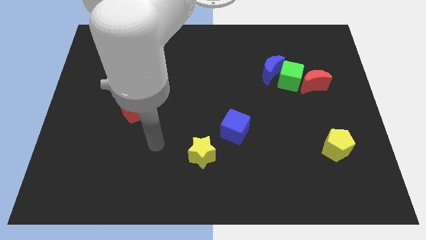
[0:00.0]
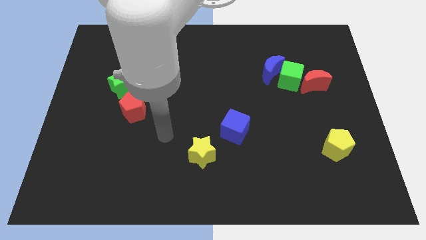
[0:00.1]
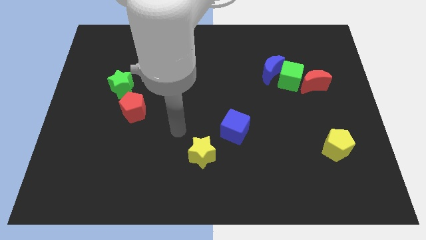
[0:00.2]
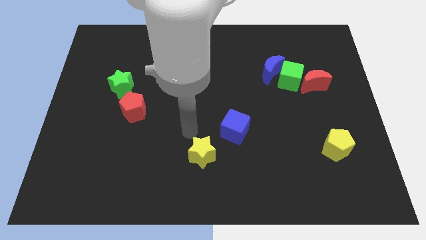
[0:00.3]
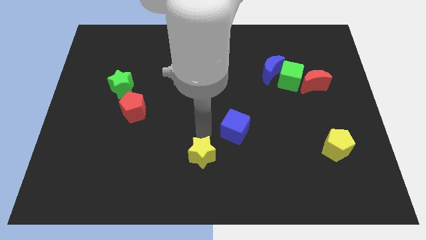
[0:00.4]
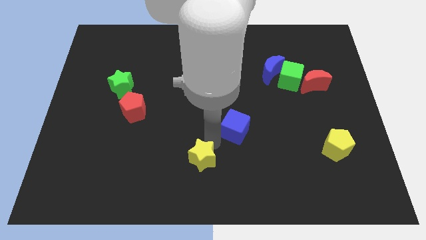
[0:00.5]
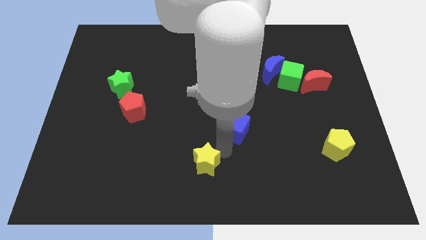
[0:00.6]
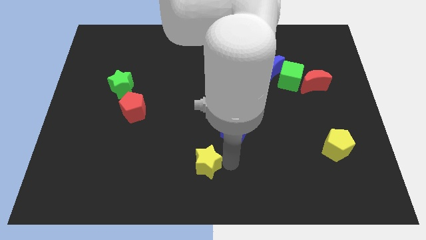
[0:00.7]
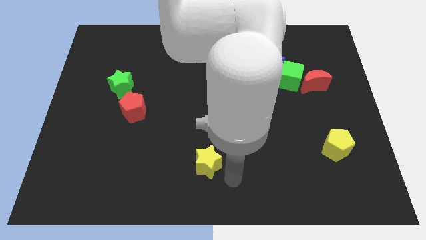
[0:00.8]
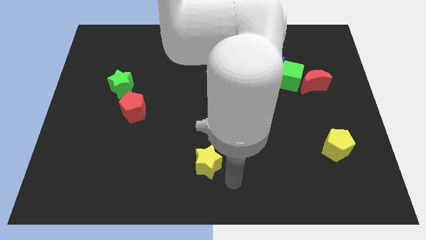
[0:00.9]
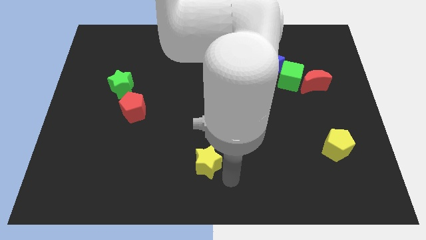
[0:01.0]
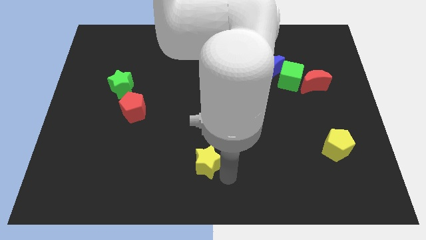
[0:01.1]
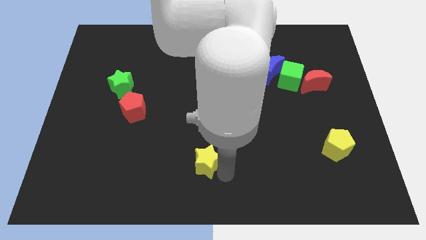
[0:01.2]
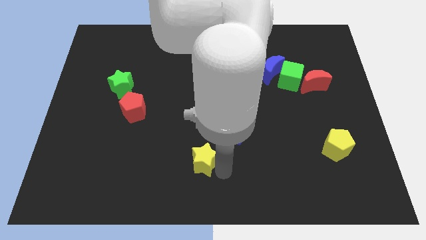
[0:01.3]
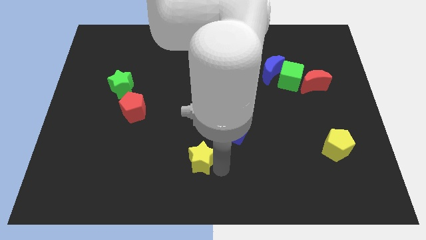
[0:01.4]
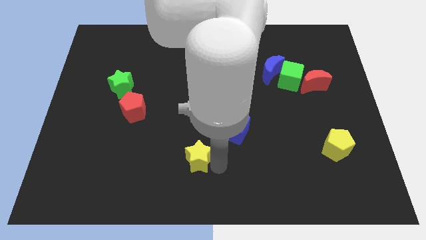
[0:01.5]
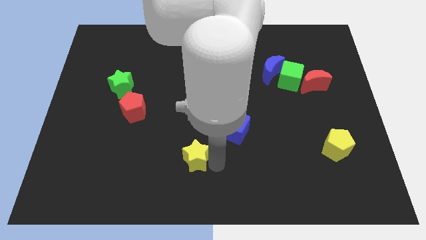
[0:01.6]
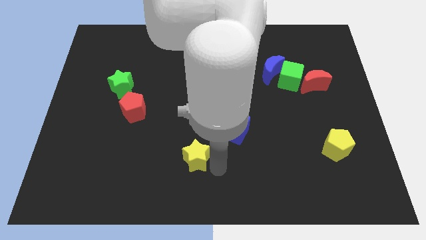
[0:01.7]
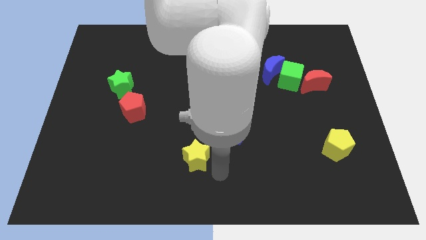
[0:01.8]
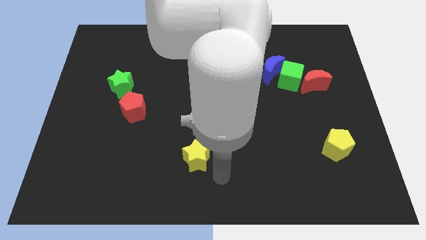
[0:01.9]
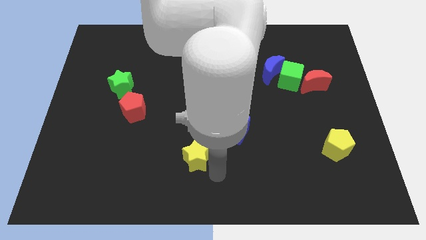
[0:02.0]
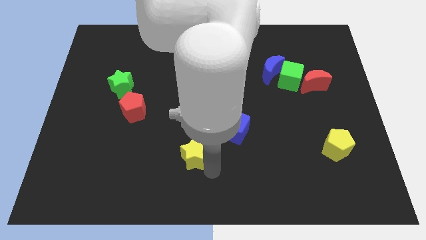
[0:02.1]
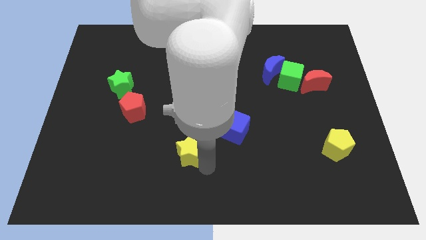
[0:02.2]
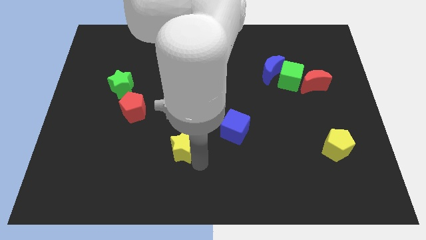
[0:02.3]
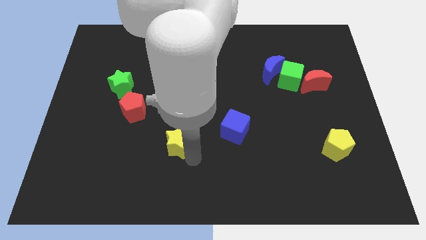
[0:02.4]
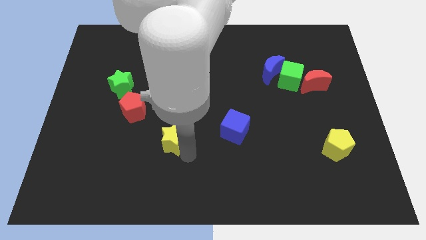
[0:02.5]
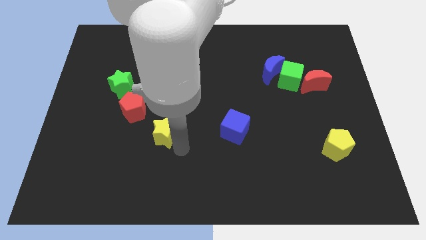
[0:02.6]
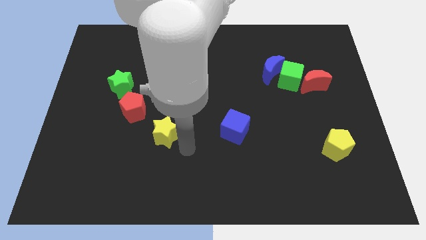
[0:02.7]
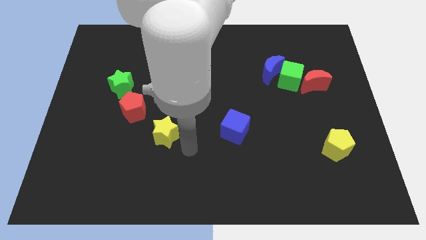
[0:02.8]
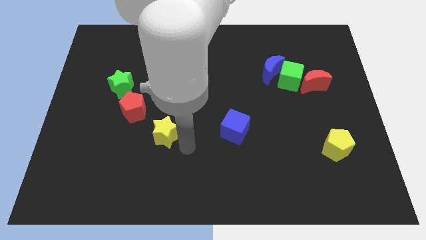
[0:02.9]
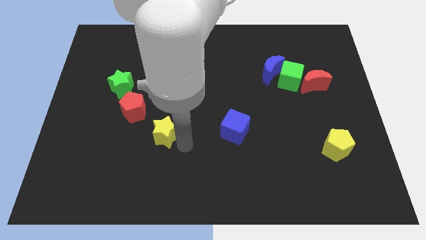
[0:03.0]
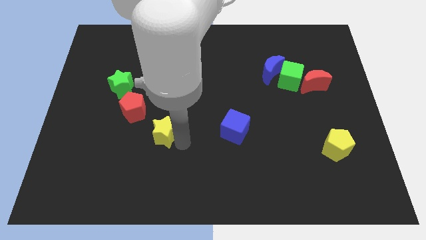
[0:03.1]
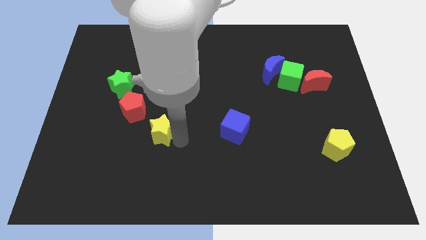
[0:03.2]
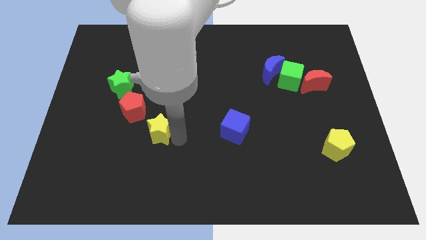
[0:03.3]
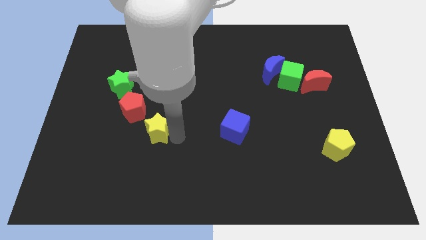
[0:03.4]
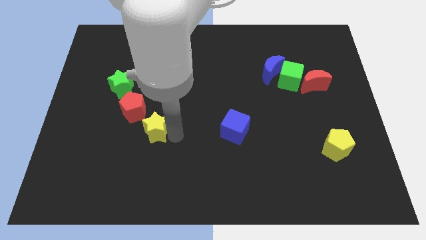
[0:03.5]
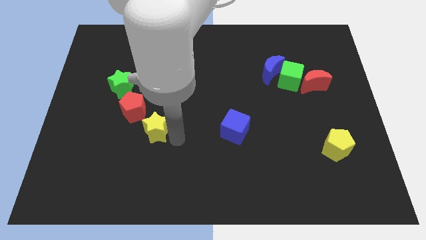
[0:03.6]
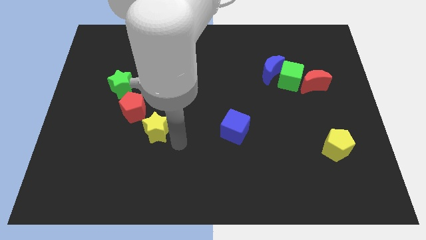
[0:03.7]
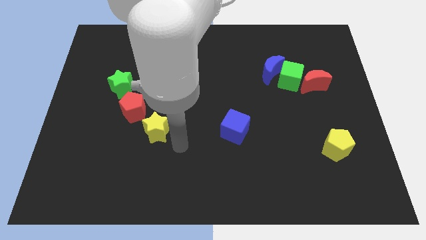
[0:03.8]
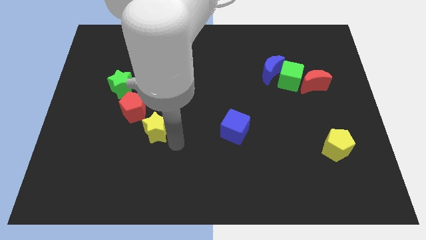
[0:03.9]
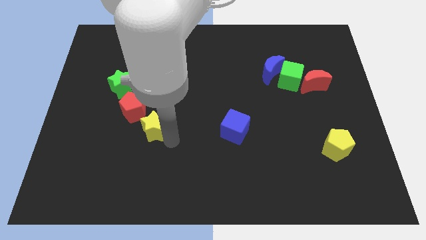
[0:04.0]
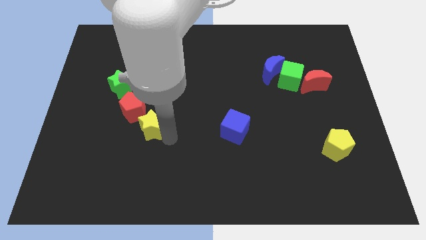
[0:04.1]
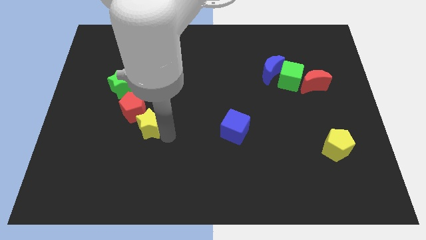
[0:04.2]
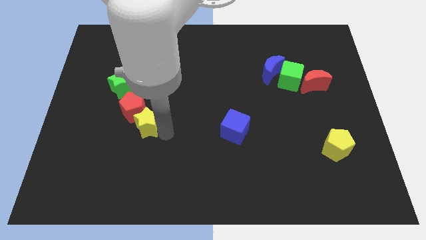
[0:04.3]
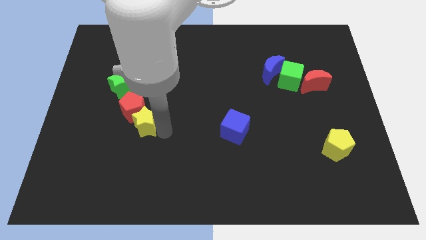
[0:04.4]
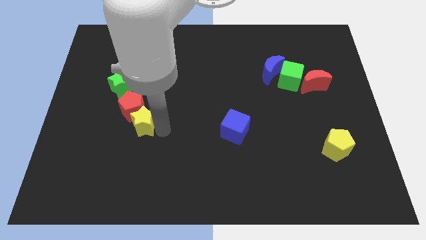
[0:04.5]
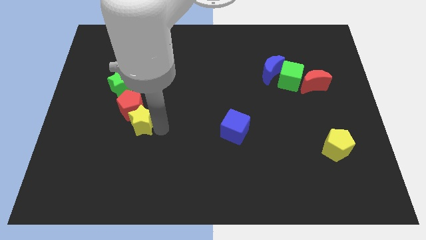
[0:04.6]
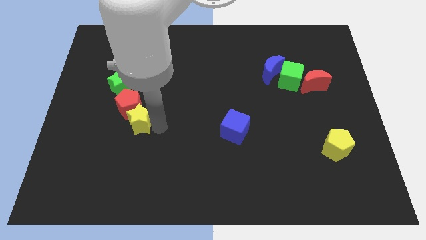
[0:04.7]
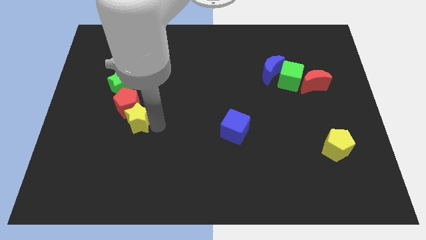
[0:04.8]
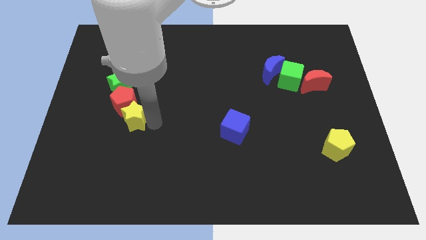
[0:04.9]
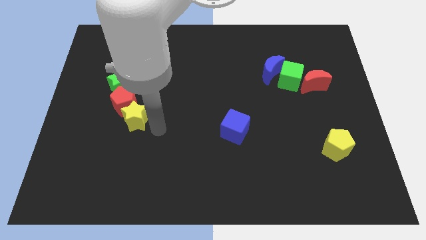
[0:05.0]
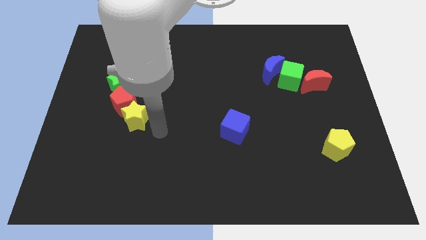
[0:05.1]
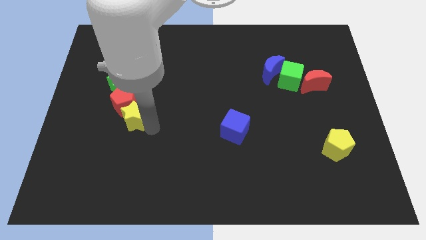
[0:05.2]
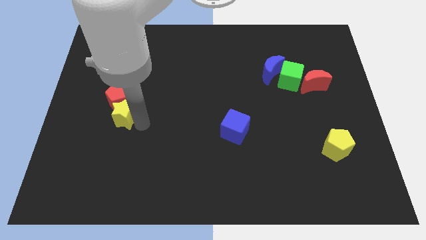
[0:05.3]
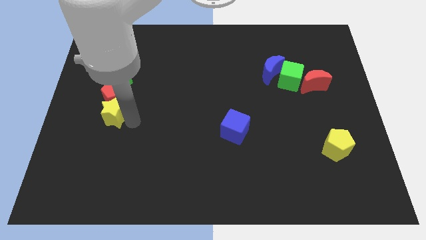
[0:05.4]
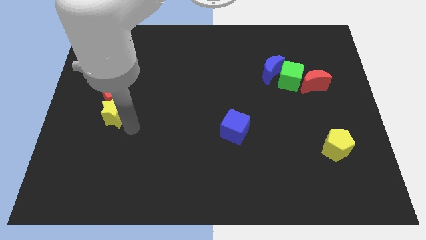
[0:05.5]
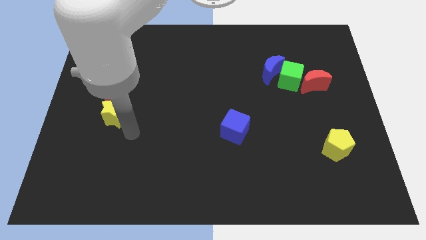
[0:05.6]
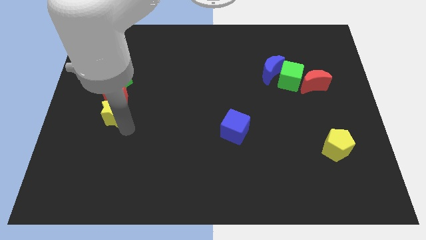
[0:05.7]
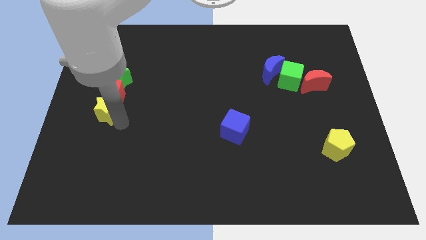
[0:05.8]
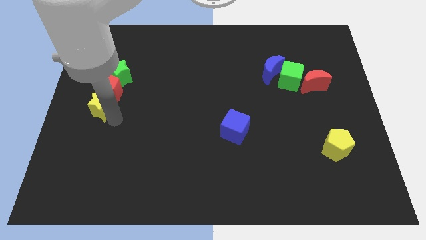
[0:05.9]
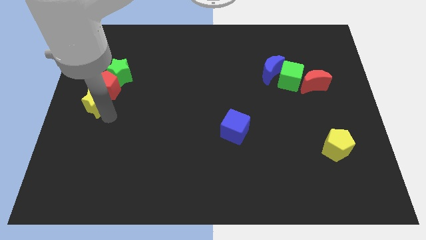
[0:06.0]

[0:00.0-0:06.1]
slide the yellow star diagonally down and to the left of the green star

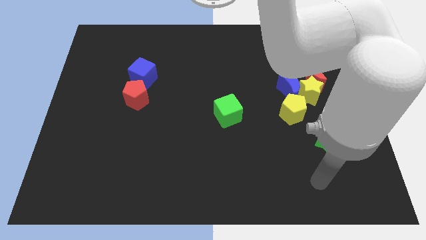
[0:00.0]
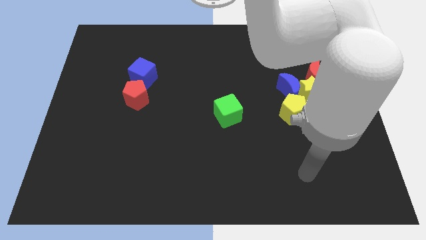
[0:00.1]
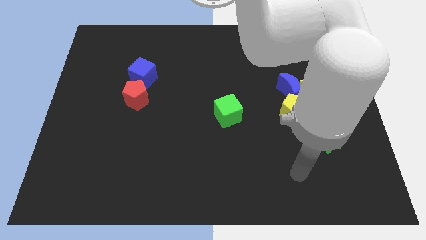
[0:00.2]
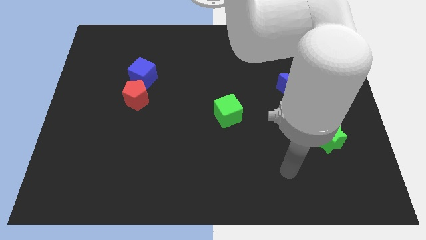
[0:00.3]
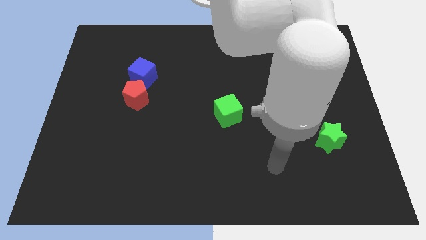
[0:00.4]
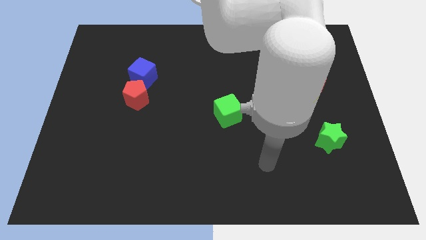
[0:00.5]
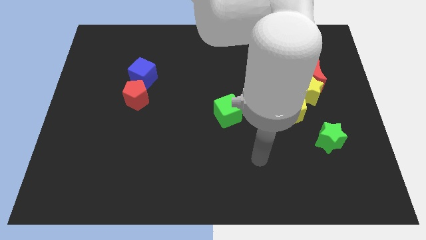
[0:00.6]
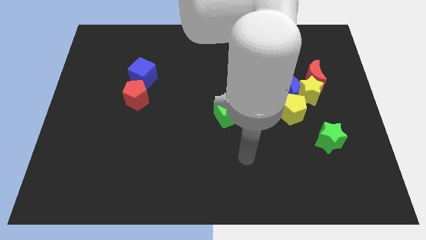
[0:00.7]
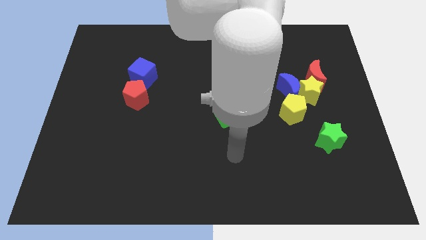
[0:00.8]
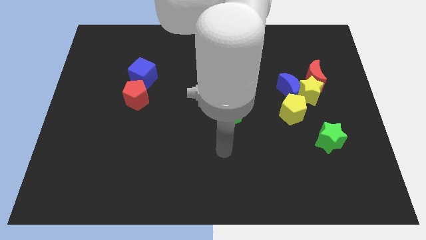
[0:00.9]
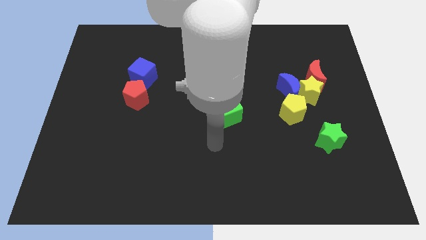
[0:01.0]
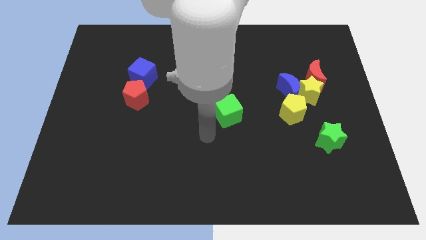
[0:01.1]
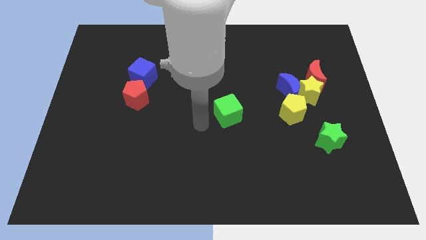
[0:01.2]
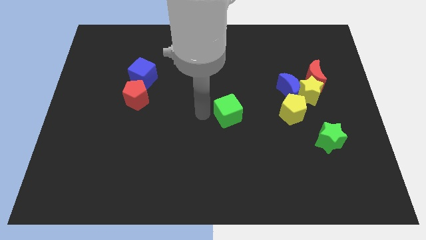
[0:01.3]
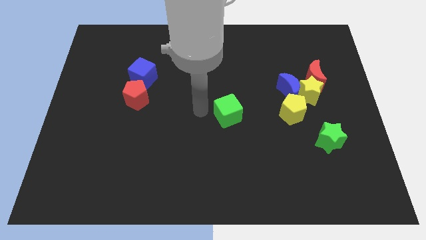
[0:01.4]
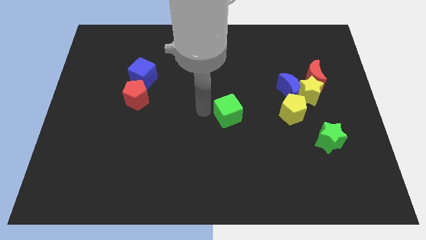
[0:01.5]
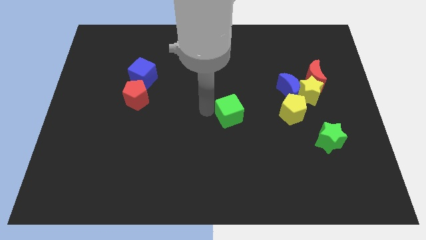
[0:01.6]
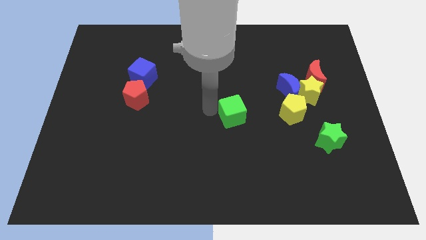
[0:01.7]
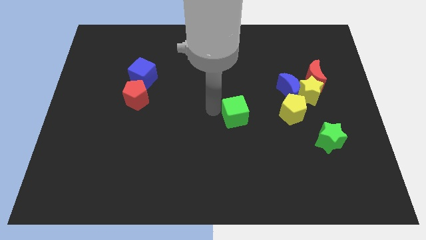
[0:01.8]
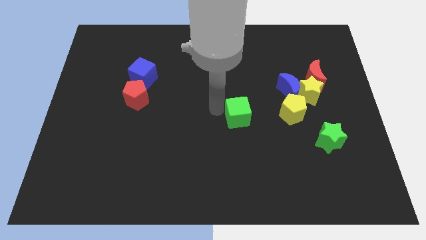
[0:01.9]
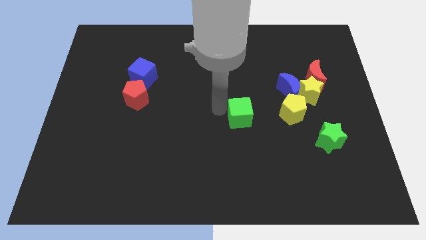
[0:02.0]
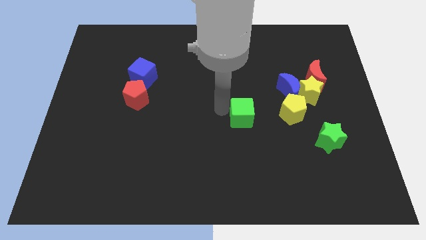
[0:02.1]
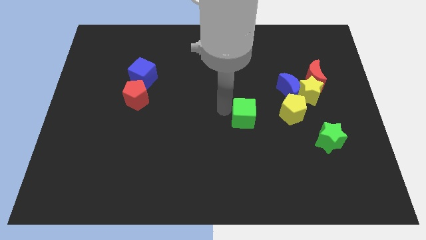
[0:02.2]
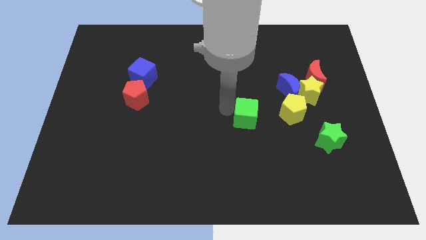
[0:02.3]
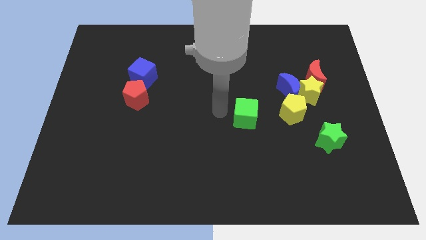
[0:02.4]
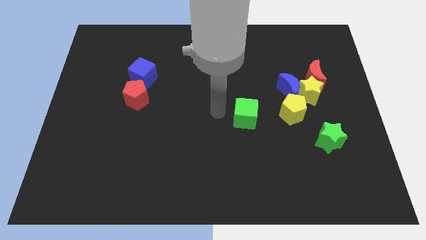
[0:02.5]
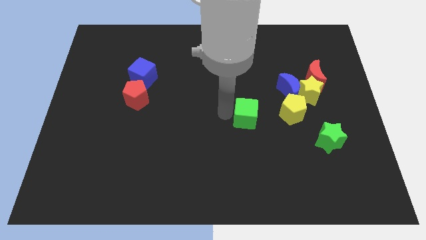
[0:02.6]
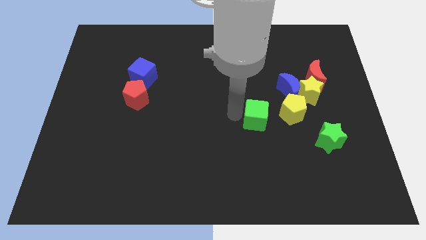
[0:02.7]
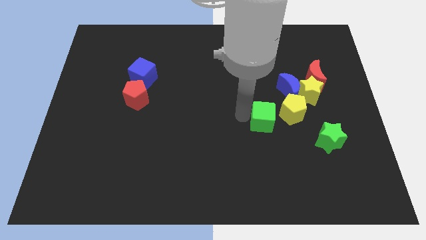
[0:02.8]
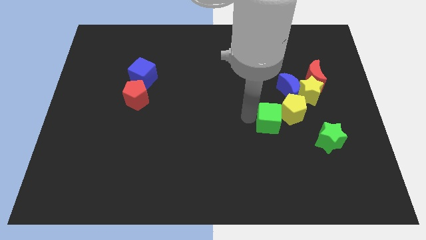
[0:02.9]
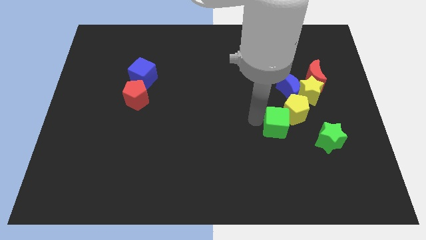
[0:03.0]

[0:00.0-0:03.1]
put the green cube to the bottom left of the yellow star
